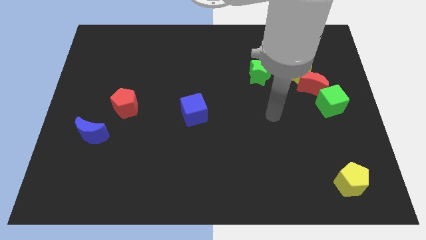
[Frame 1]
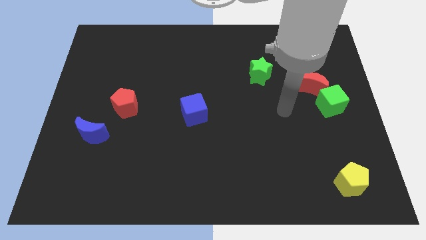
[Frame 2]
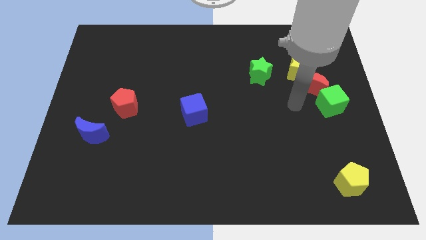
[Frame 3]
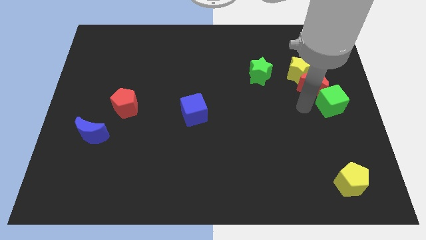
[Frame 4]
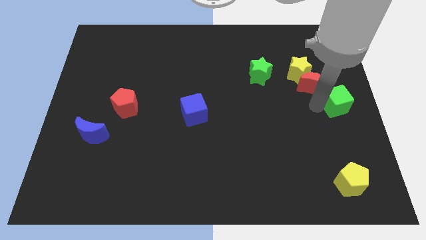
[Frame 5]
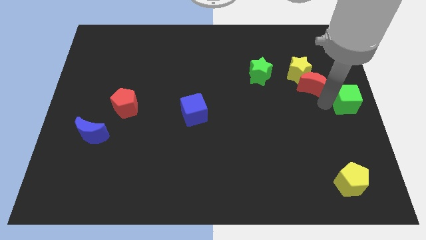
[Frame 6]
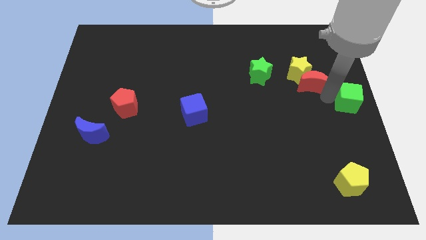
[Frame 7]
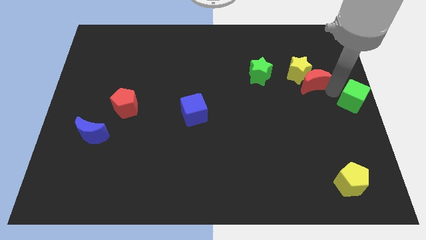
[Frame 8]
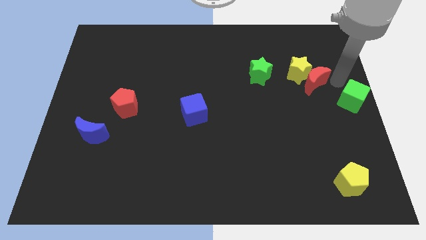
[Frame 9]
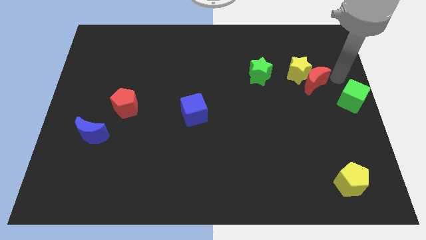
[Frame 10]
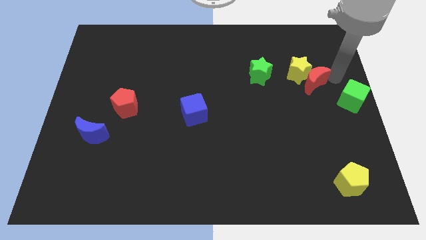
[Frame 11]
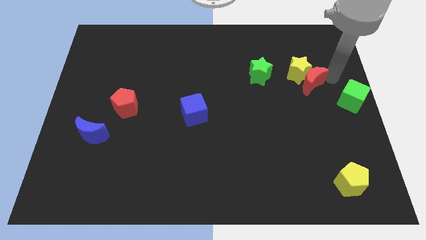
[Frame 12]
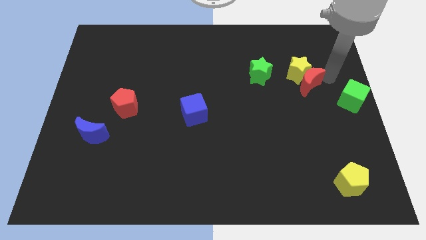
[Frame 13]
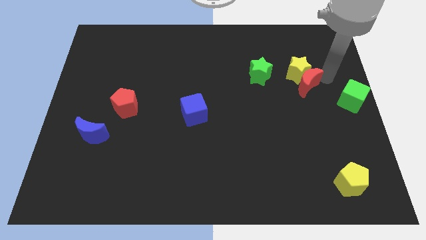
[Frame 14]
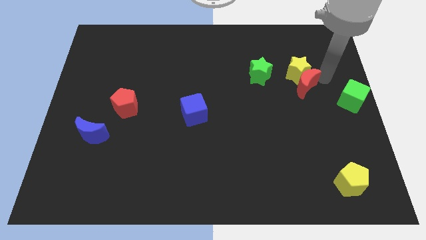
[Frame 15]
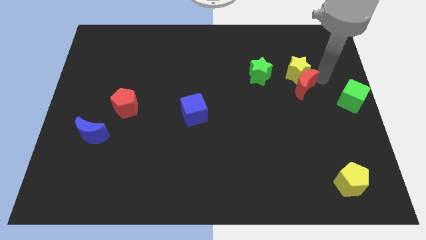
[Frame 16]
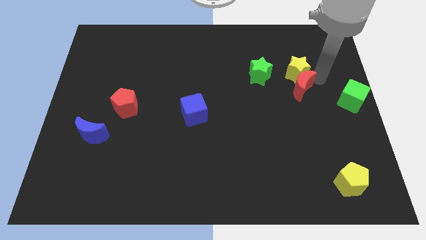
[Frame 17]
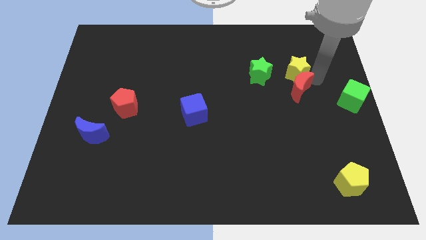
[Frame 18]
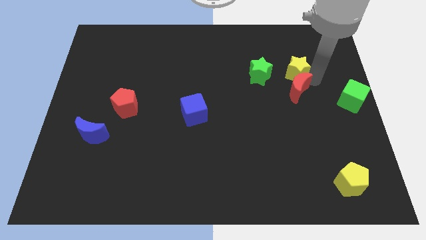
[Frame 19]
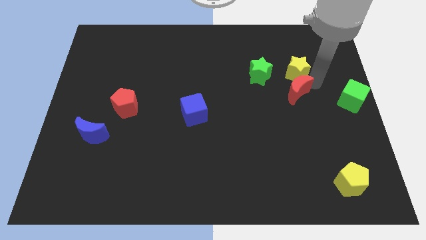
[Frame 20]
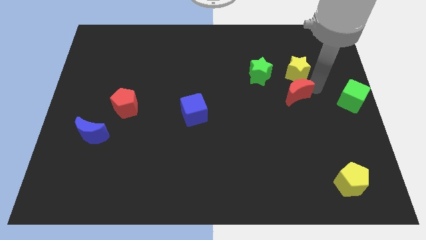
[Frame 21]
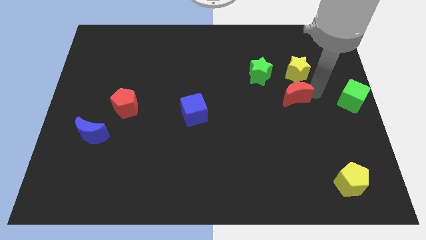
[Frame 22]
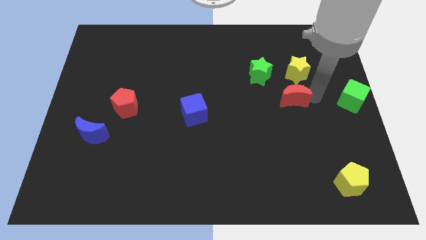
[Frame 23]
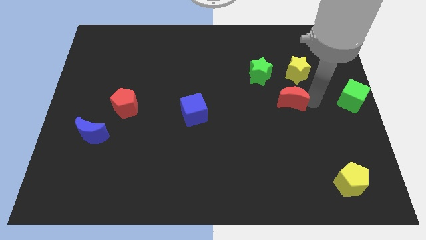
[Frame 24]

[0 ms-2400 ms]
move the red moon away from the yellow star and green cube

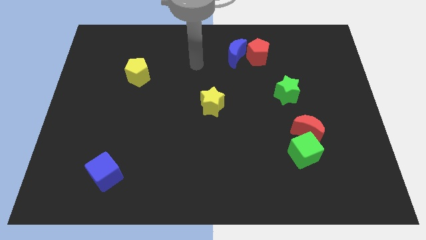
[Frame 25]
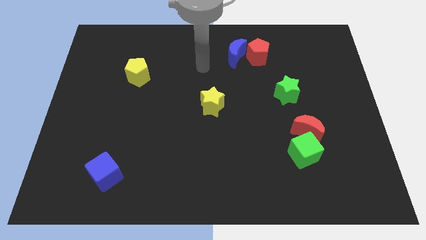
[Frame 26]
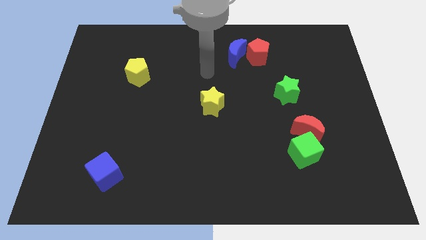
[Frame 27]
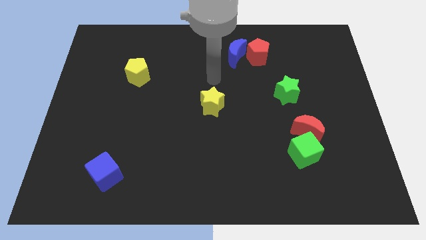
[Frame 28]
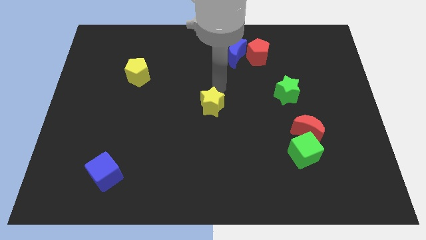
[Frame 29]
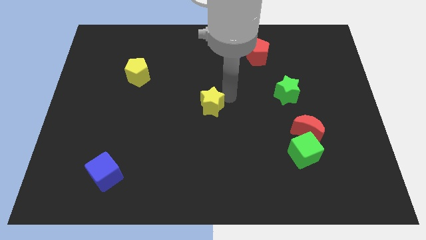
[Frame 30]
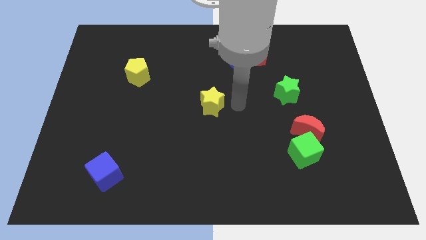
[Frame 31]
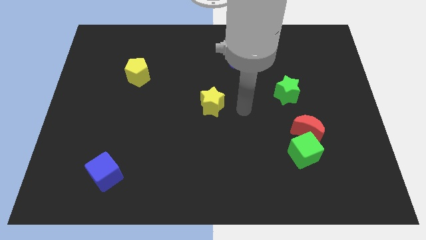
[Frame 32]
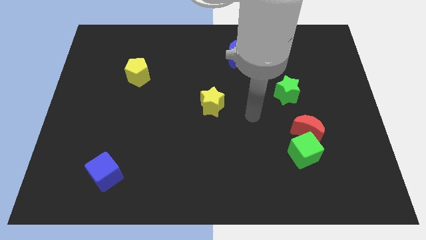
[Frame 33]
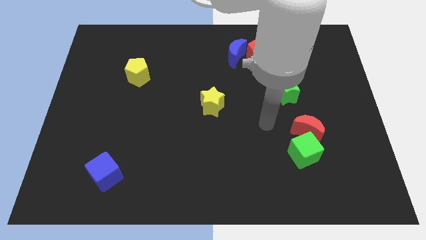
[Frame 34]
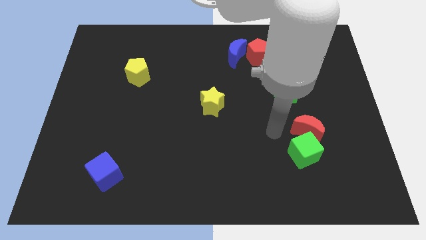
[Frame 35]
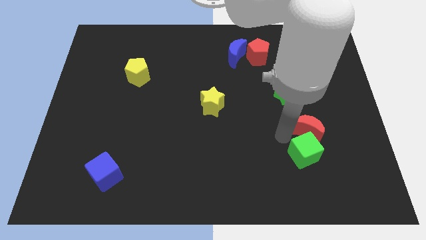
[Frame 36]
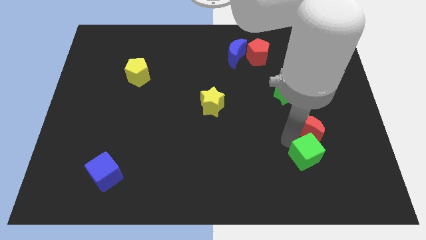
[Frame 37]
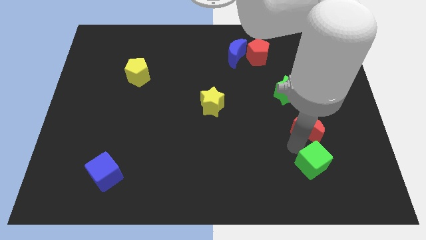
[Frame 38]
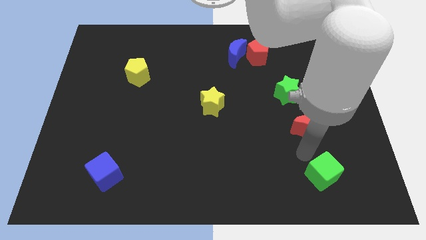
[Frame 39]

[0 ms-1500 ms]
pull the red moon apart from the green cube

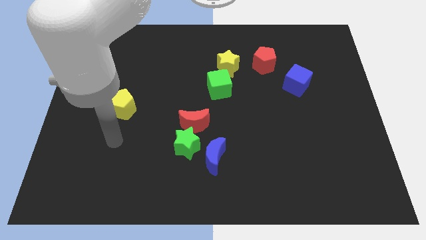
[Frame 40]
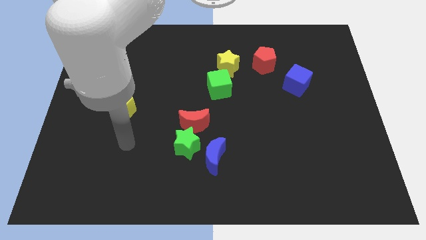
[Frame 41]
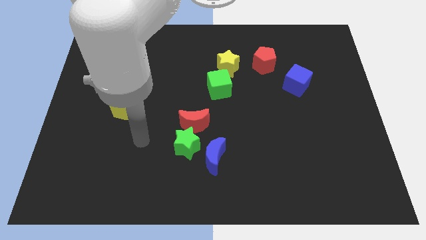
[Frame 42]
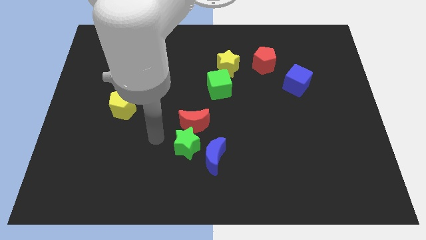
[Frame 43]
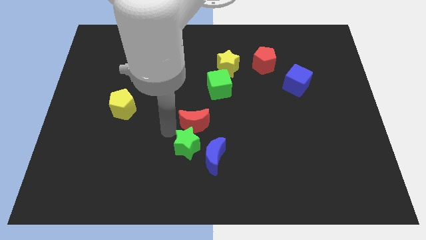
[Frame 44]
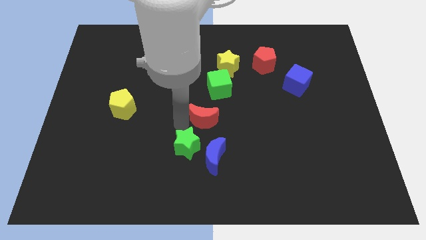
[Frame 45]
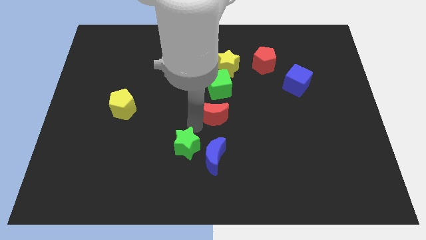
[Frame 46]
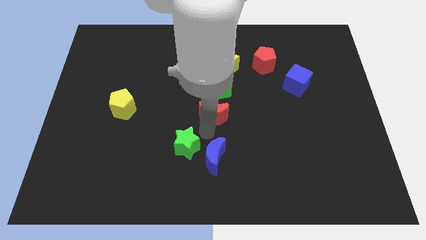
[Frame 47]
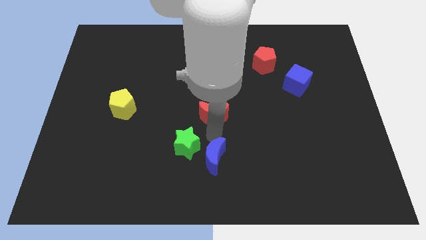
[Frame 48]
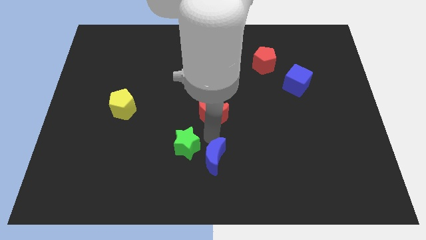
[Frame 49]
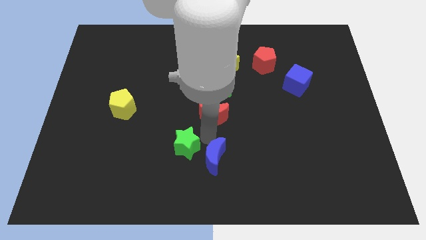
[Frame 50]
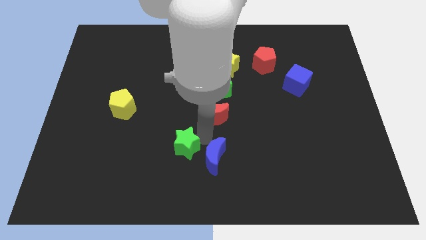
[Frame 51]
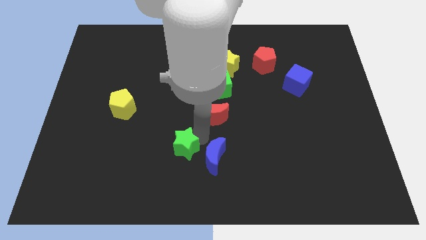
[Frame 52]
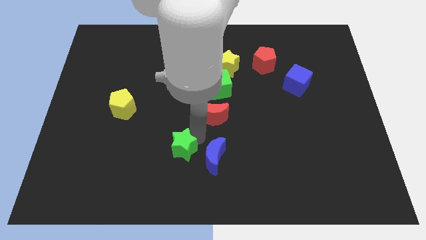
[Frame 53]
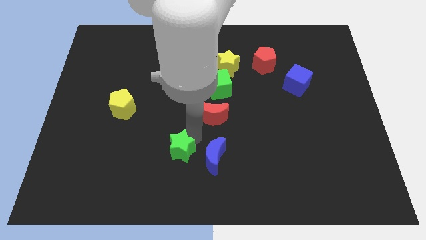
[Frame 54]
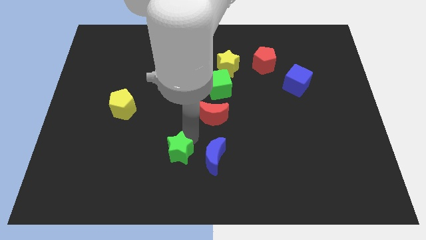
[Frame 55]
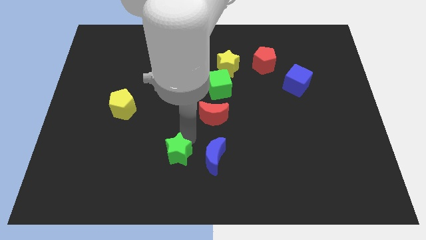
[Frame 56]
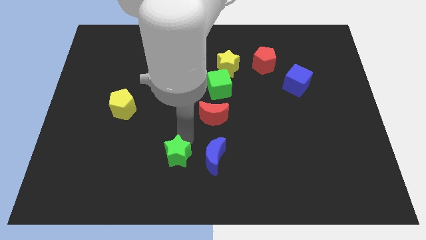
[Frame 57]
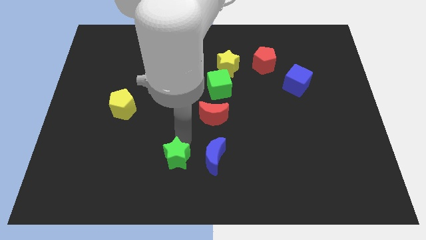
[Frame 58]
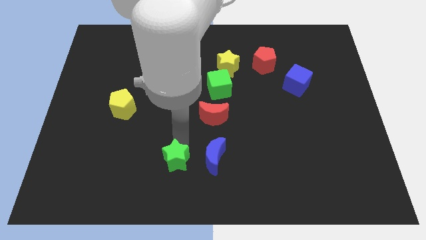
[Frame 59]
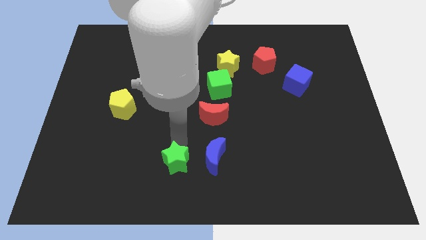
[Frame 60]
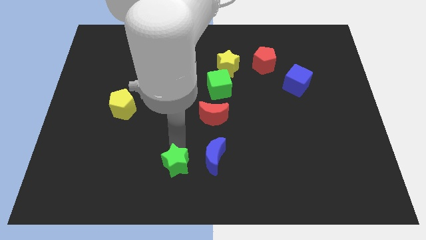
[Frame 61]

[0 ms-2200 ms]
separate the green star from the red moon and blue moon

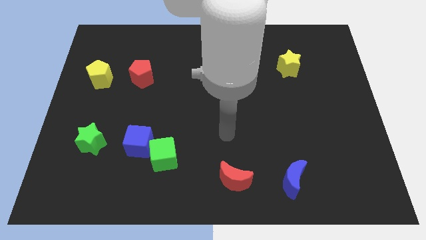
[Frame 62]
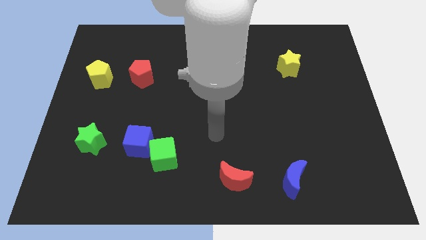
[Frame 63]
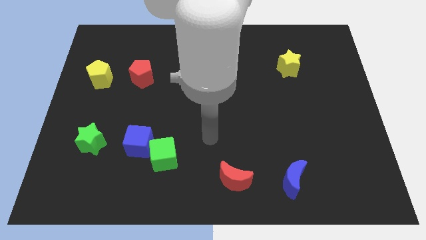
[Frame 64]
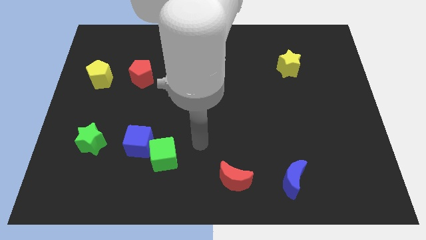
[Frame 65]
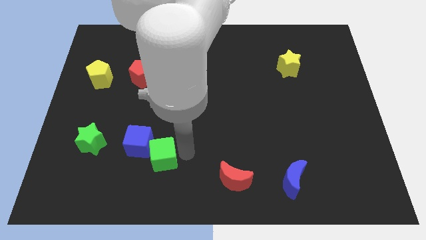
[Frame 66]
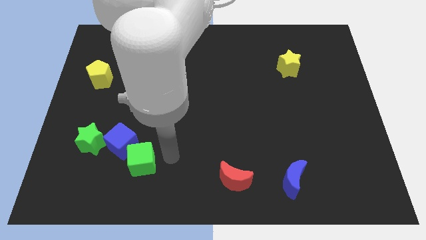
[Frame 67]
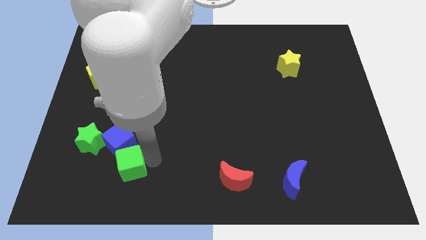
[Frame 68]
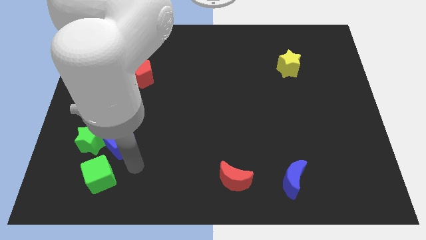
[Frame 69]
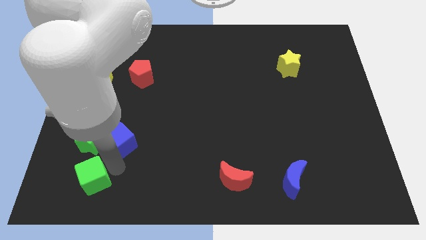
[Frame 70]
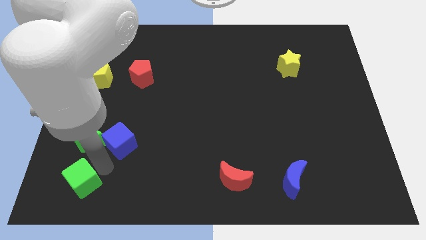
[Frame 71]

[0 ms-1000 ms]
separate the blue cube from the green cube

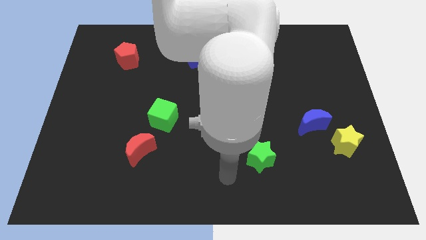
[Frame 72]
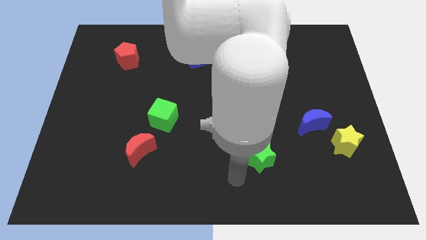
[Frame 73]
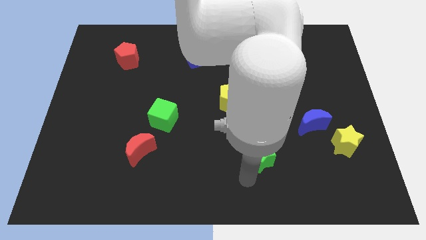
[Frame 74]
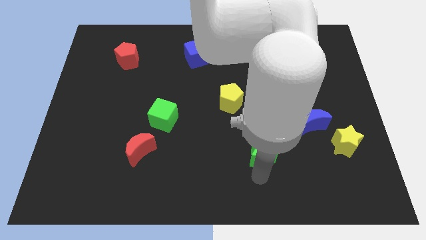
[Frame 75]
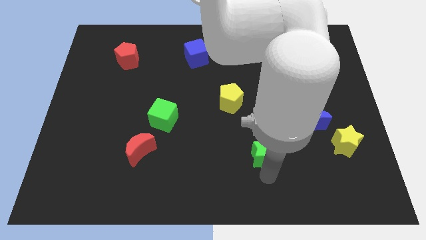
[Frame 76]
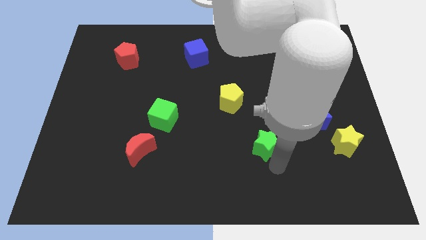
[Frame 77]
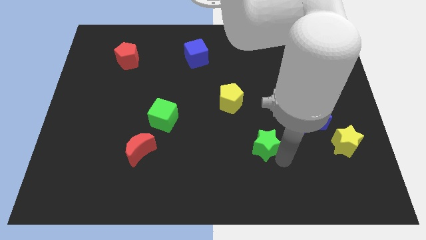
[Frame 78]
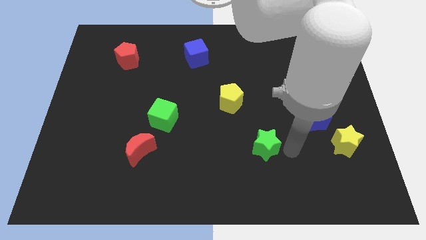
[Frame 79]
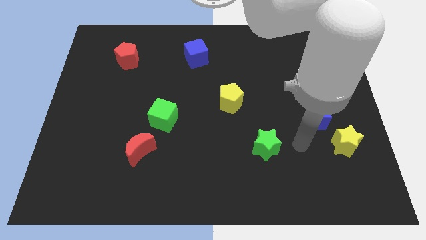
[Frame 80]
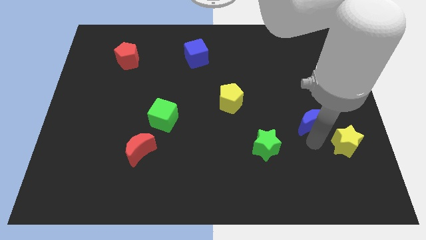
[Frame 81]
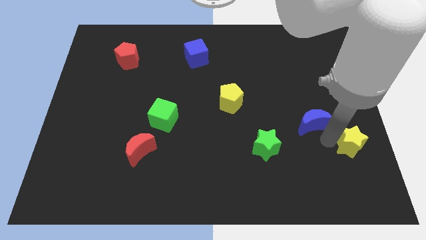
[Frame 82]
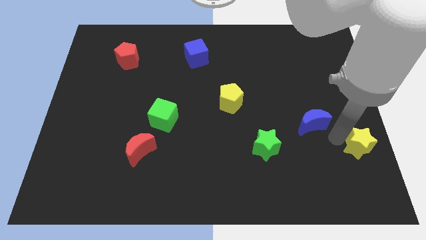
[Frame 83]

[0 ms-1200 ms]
separate the blue moon from the yellow star

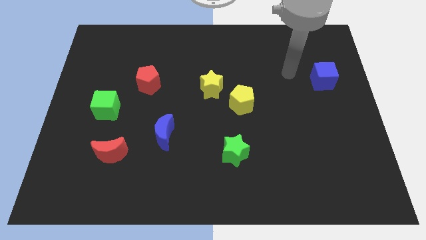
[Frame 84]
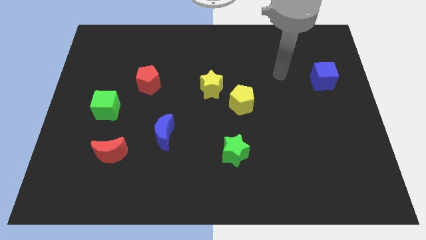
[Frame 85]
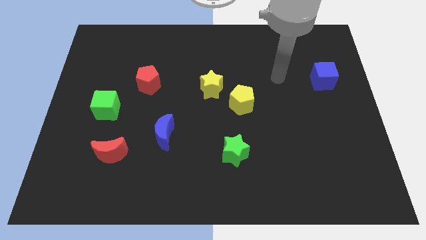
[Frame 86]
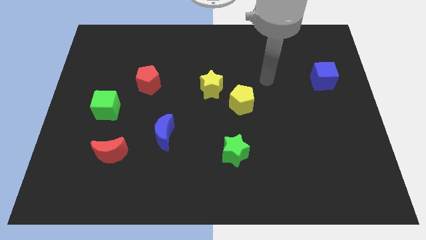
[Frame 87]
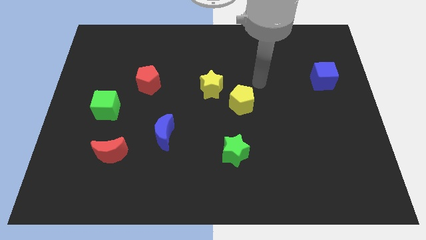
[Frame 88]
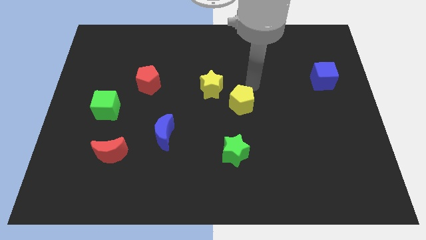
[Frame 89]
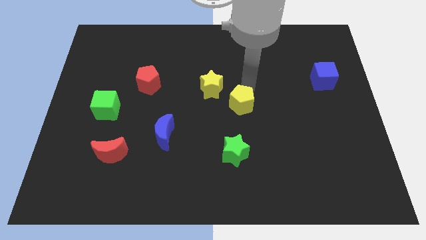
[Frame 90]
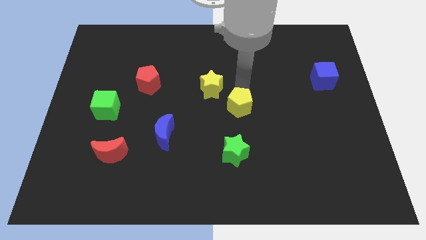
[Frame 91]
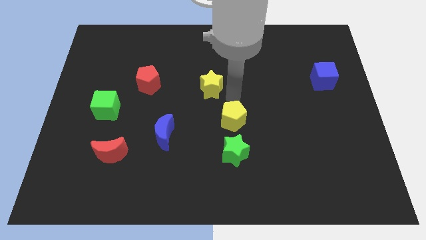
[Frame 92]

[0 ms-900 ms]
separate the yellow star from the yellow pentagon
